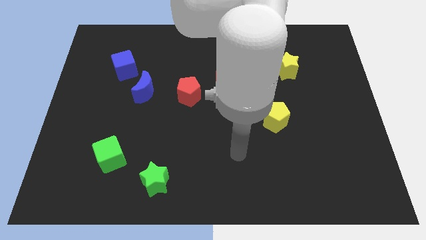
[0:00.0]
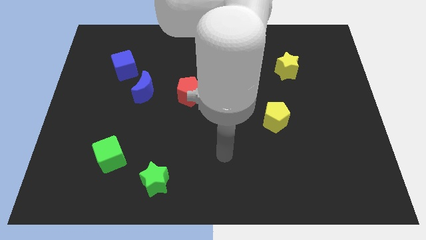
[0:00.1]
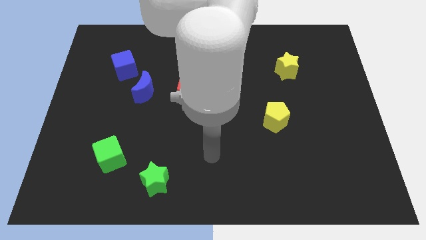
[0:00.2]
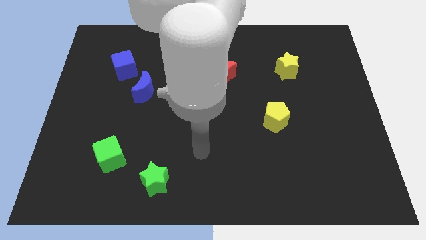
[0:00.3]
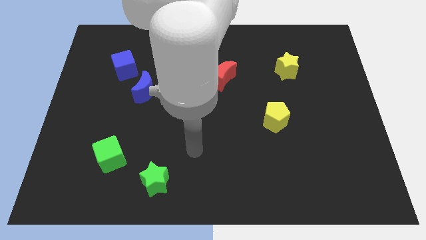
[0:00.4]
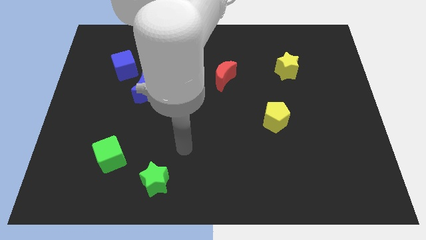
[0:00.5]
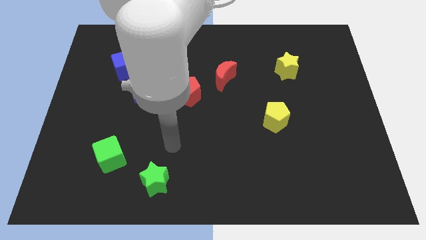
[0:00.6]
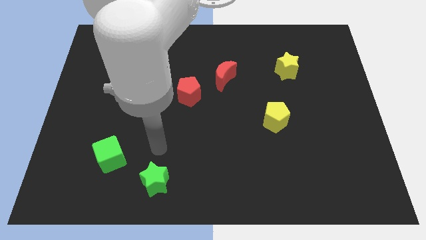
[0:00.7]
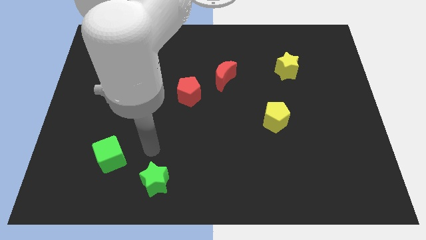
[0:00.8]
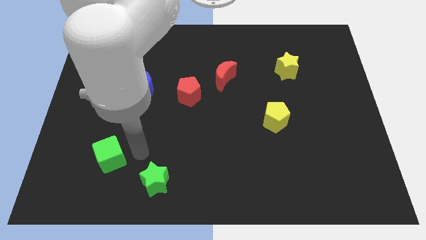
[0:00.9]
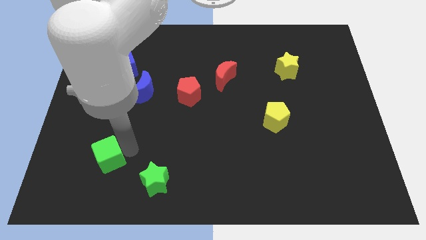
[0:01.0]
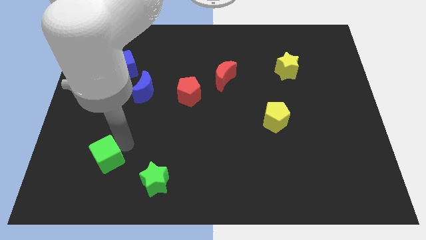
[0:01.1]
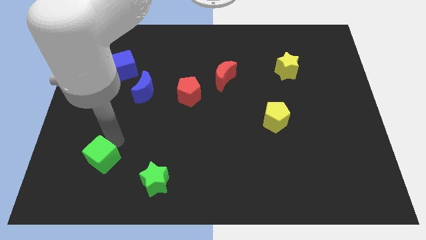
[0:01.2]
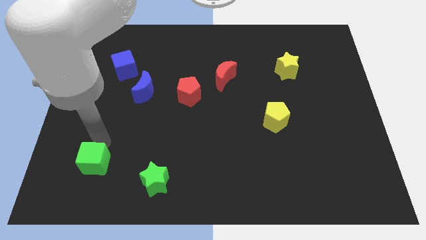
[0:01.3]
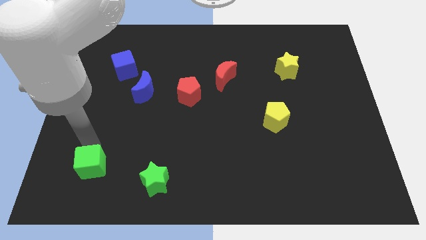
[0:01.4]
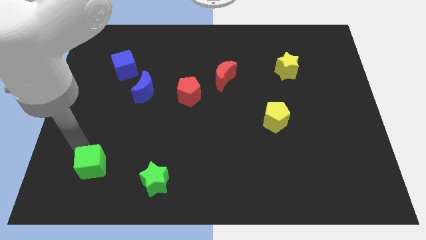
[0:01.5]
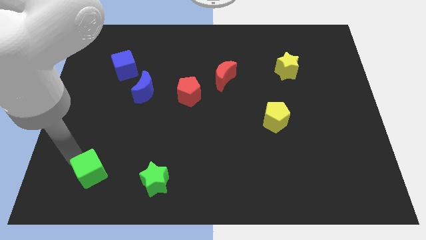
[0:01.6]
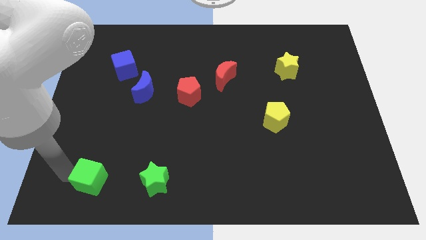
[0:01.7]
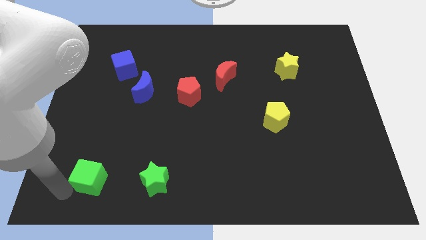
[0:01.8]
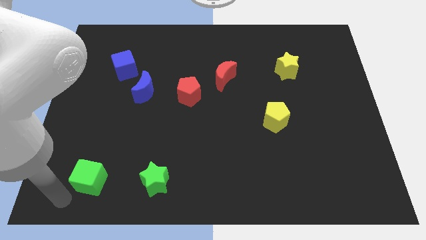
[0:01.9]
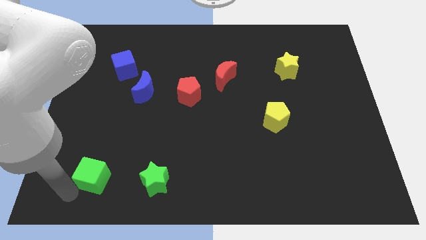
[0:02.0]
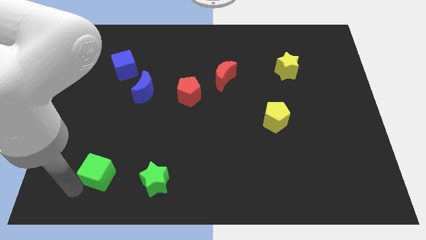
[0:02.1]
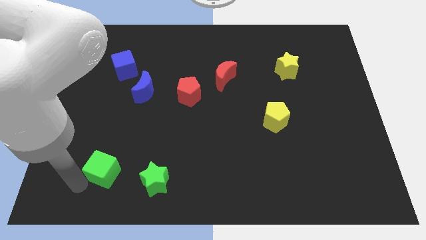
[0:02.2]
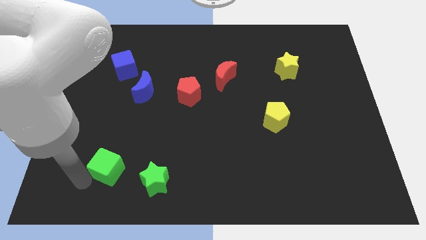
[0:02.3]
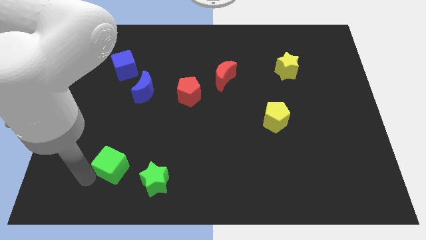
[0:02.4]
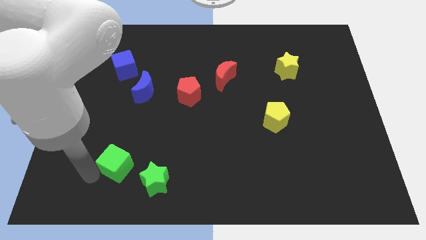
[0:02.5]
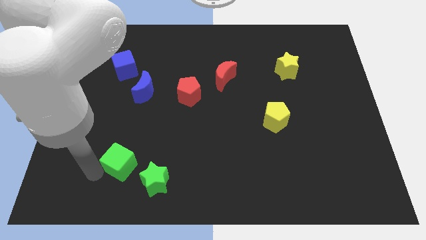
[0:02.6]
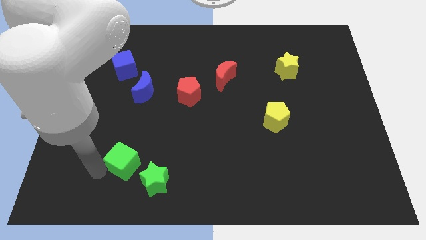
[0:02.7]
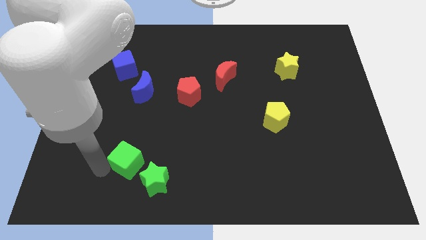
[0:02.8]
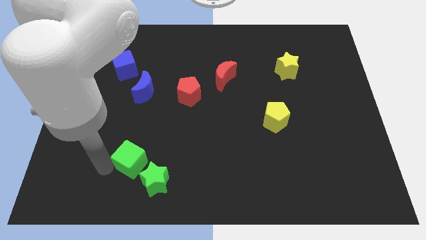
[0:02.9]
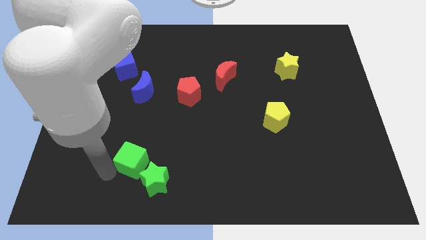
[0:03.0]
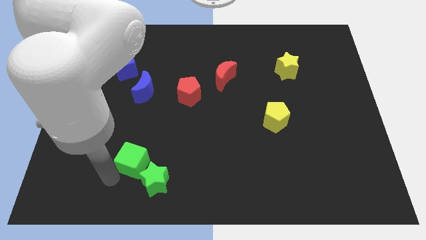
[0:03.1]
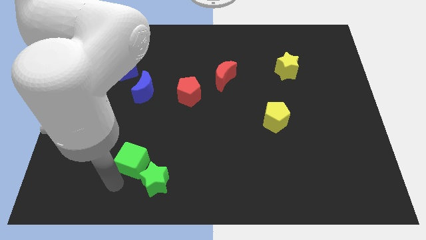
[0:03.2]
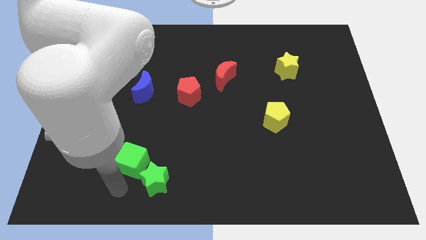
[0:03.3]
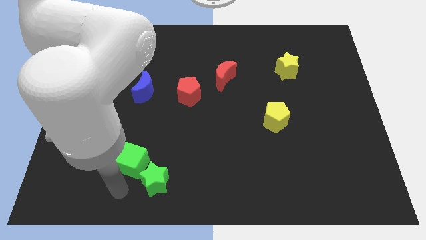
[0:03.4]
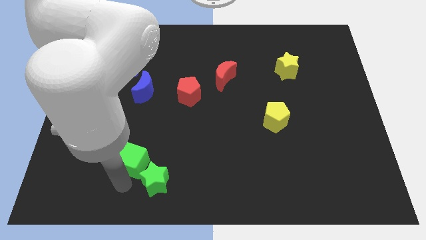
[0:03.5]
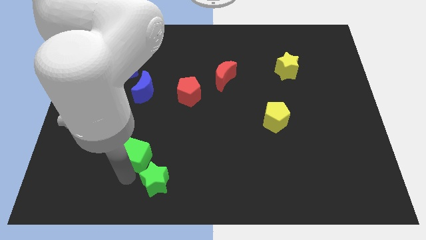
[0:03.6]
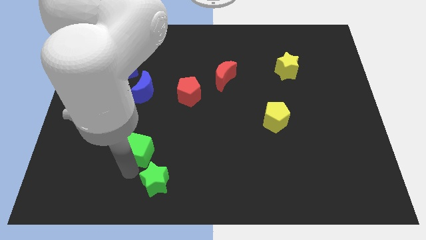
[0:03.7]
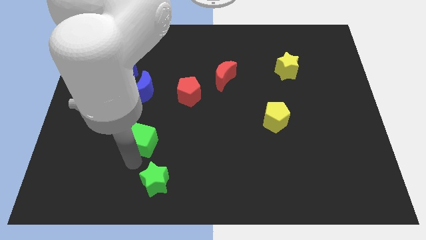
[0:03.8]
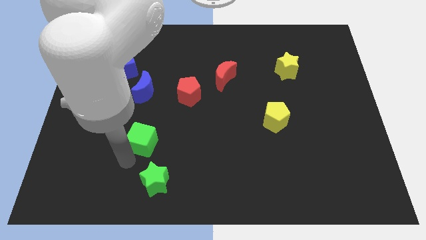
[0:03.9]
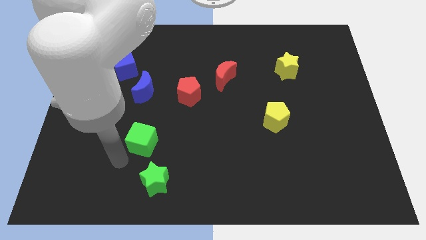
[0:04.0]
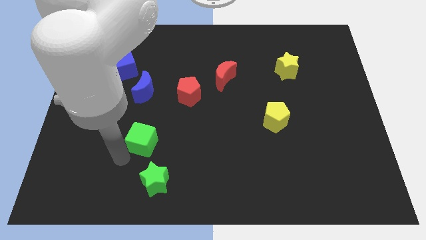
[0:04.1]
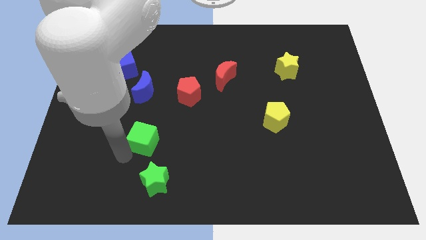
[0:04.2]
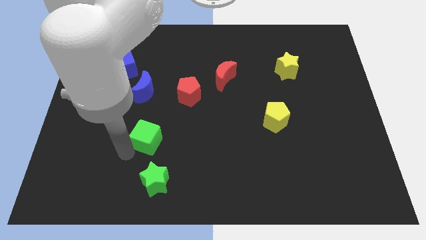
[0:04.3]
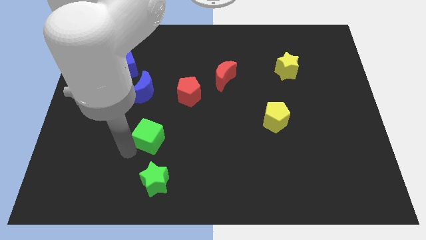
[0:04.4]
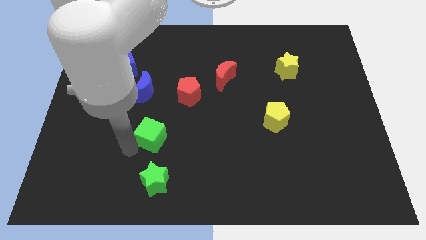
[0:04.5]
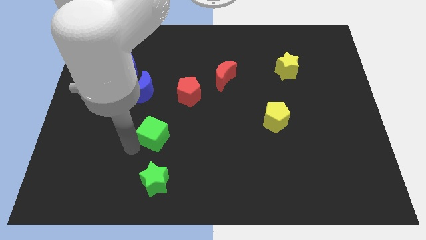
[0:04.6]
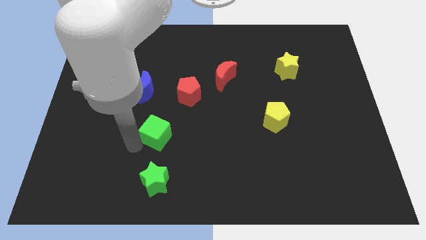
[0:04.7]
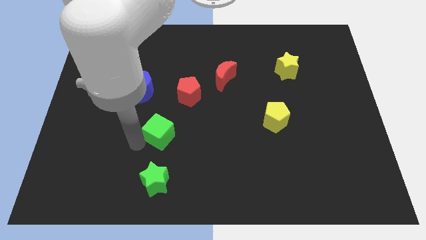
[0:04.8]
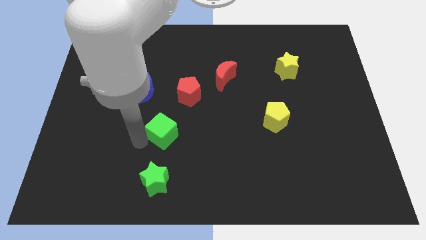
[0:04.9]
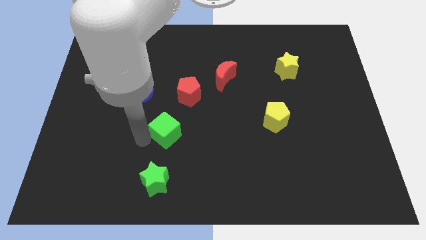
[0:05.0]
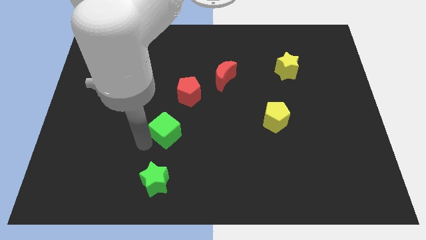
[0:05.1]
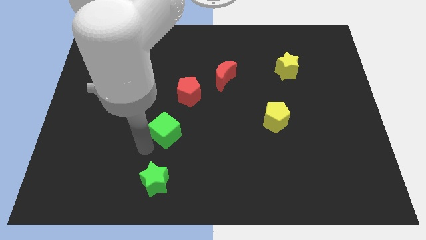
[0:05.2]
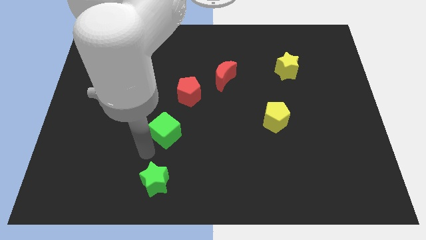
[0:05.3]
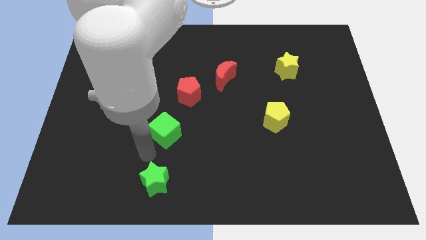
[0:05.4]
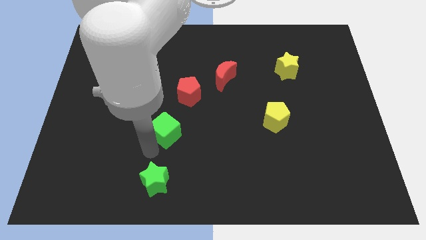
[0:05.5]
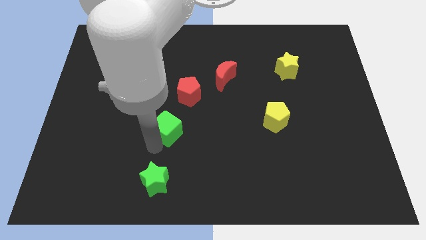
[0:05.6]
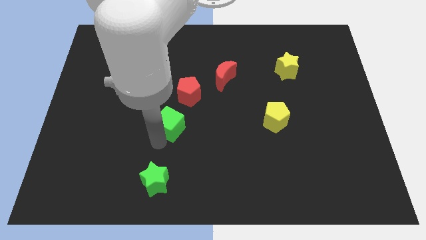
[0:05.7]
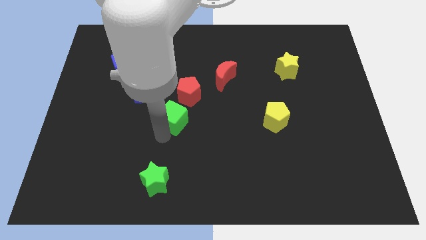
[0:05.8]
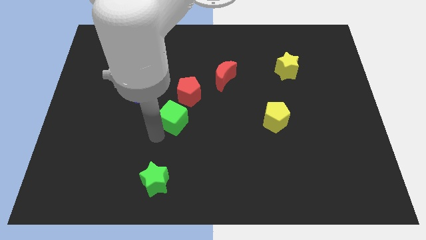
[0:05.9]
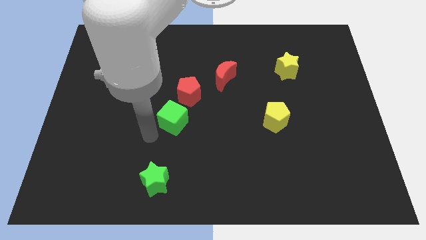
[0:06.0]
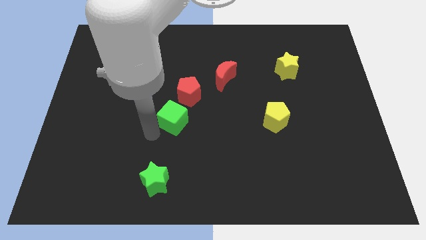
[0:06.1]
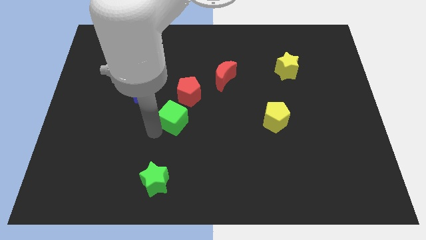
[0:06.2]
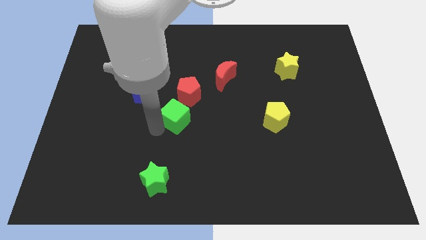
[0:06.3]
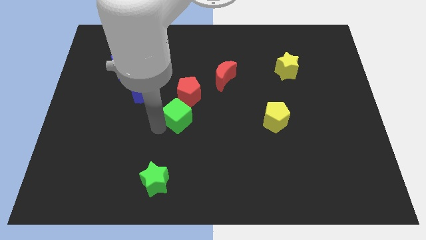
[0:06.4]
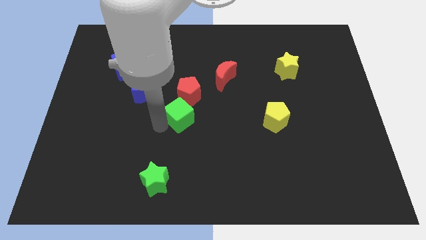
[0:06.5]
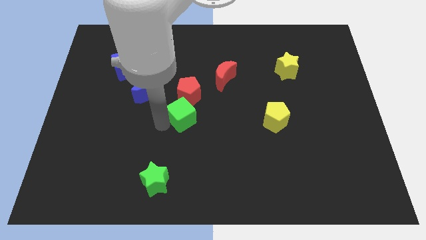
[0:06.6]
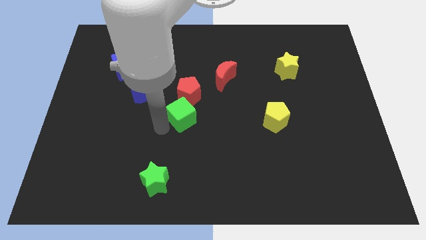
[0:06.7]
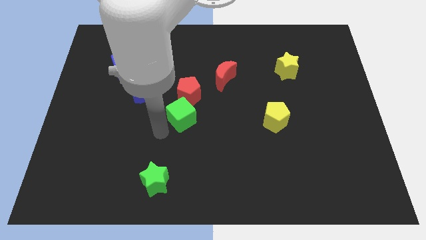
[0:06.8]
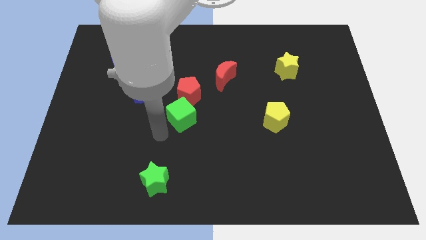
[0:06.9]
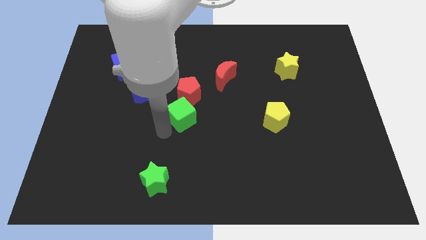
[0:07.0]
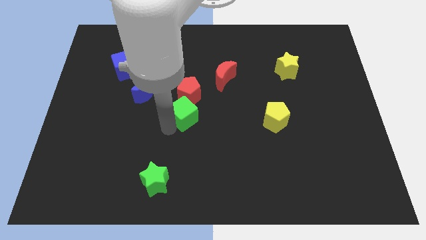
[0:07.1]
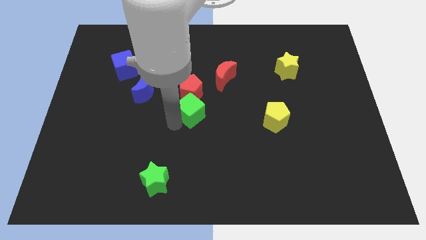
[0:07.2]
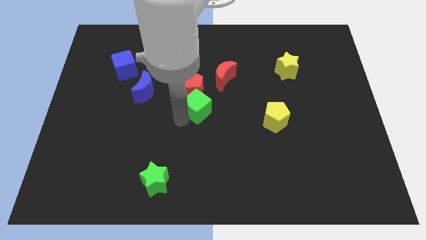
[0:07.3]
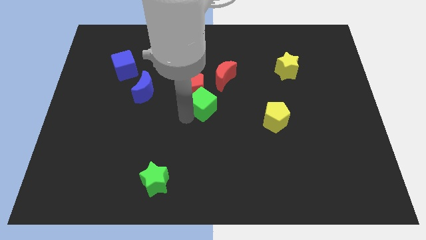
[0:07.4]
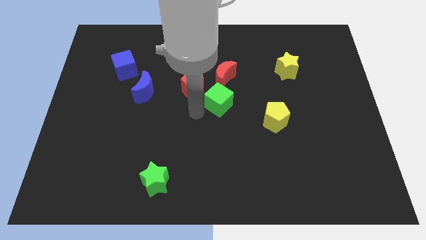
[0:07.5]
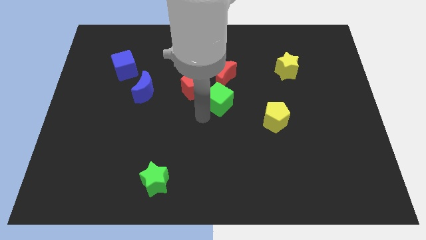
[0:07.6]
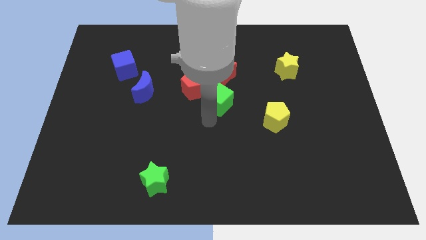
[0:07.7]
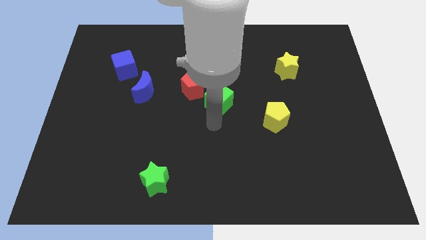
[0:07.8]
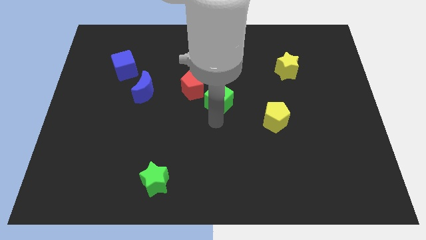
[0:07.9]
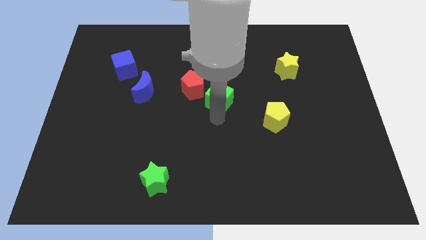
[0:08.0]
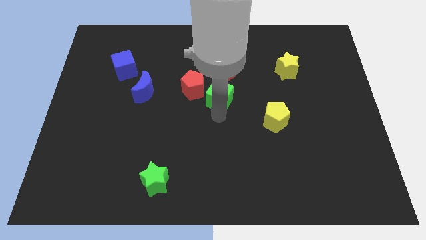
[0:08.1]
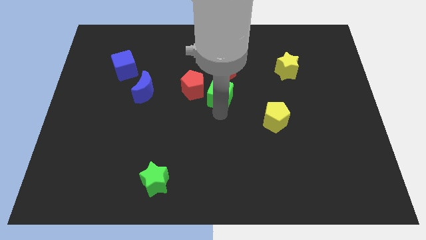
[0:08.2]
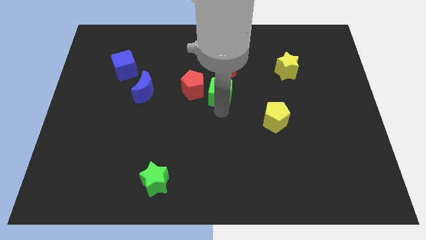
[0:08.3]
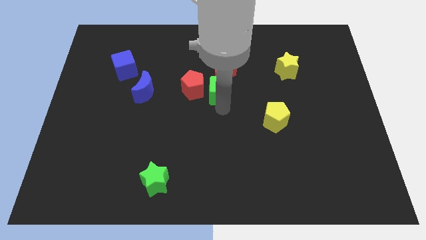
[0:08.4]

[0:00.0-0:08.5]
put the green cube to the red moon
